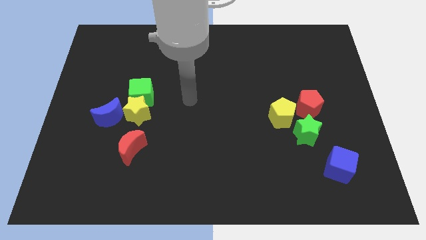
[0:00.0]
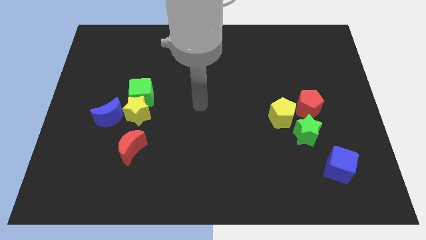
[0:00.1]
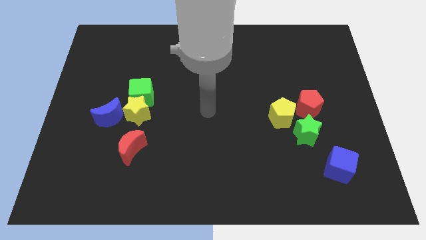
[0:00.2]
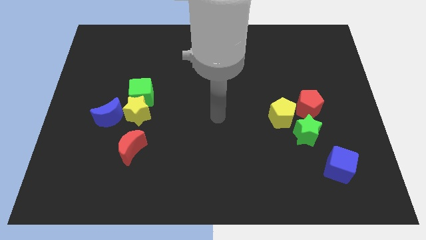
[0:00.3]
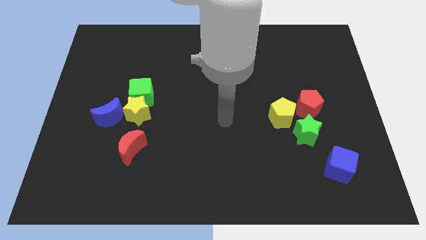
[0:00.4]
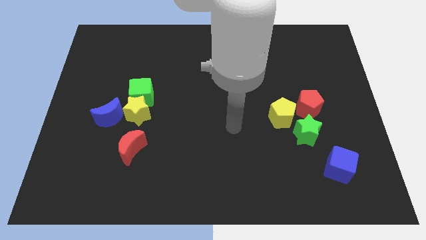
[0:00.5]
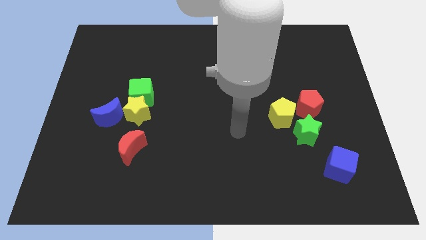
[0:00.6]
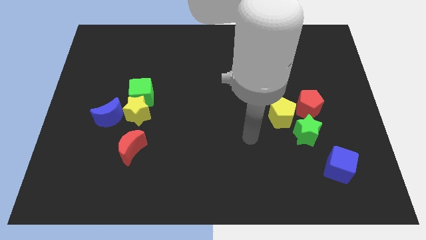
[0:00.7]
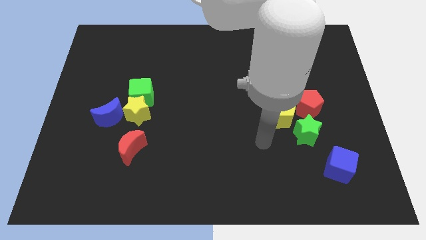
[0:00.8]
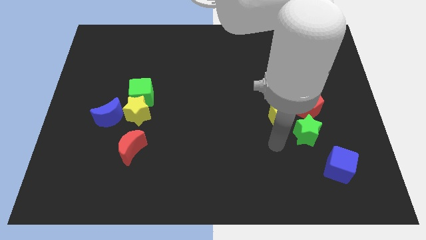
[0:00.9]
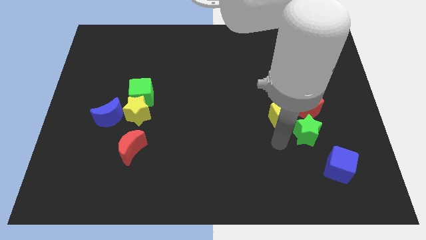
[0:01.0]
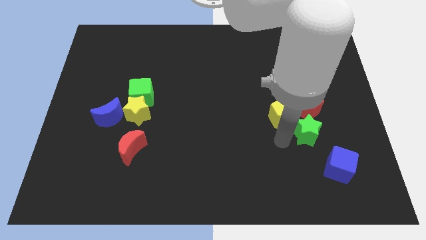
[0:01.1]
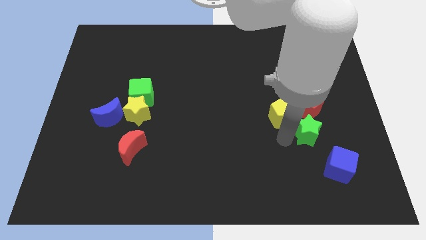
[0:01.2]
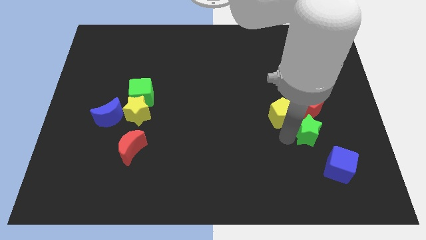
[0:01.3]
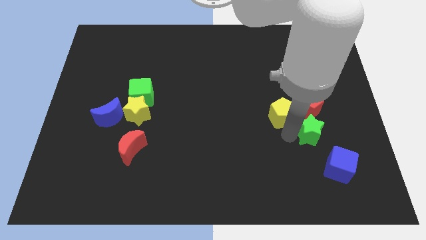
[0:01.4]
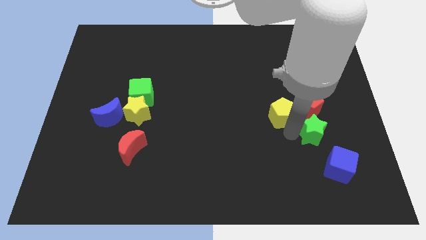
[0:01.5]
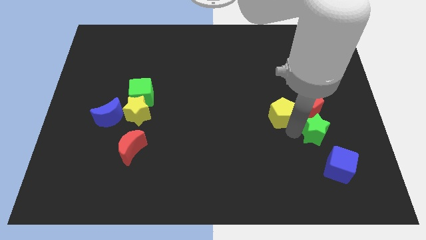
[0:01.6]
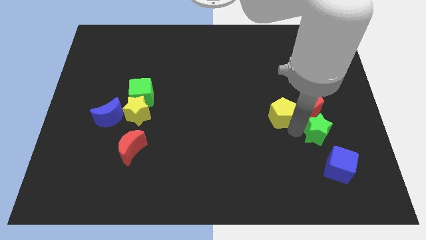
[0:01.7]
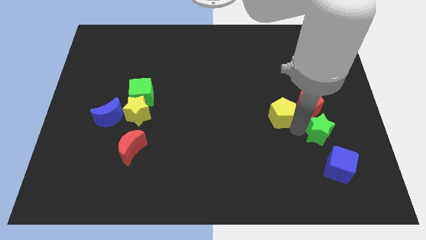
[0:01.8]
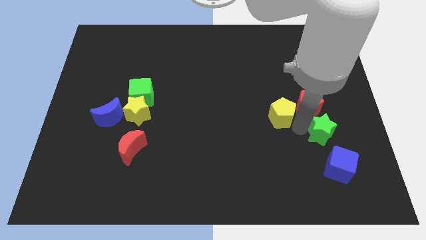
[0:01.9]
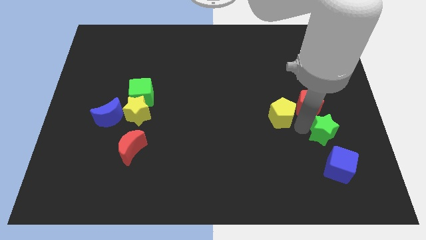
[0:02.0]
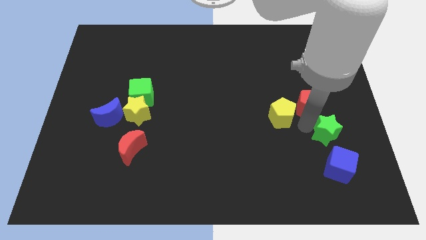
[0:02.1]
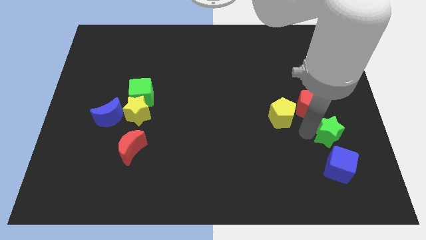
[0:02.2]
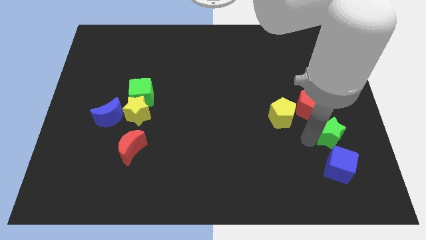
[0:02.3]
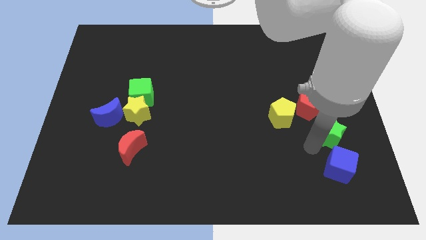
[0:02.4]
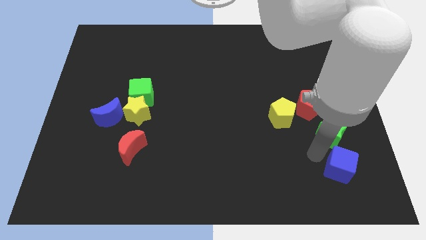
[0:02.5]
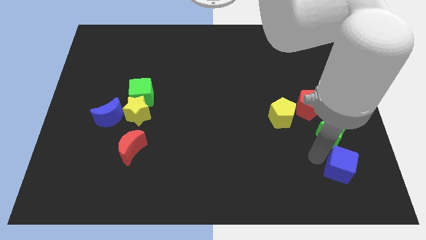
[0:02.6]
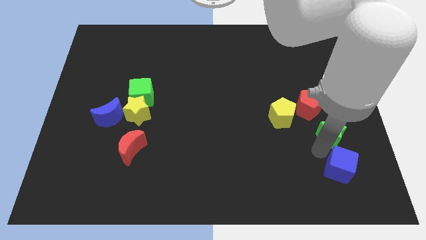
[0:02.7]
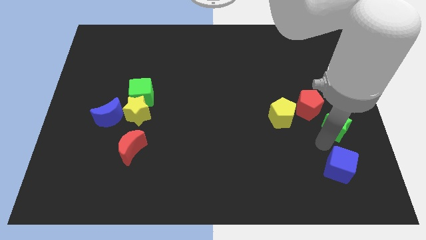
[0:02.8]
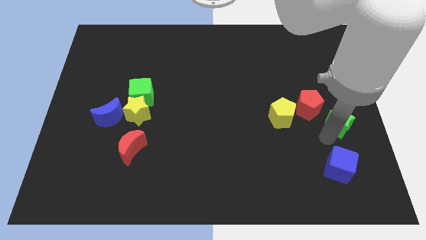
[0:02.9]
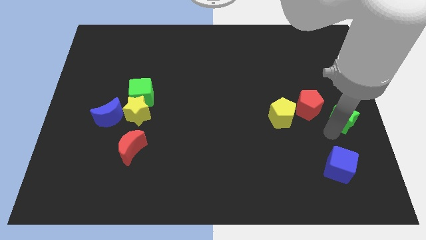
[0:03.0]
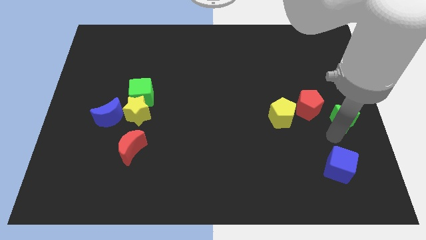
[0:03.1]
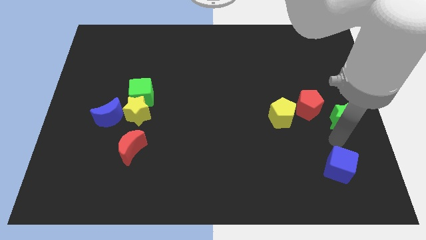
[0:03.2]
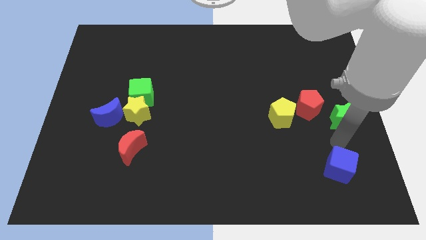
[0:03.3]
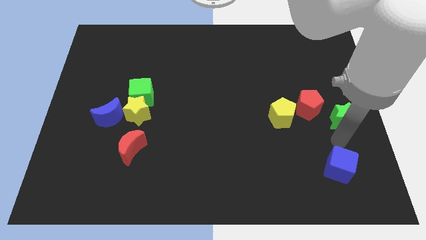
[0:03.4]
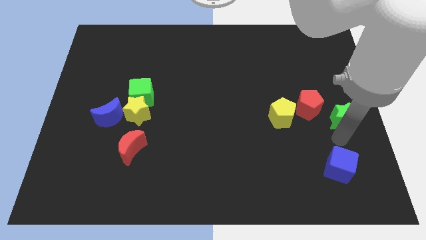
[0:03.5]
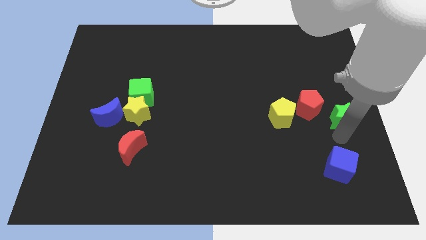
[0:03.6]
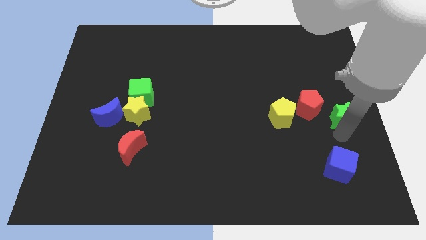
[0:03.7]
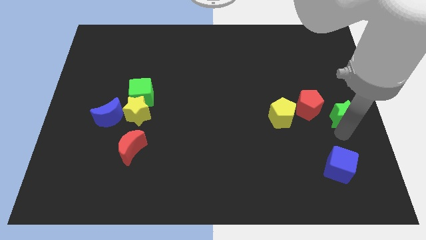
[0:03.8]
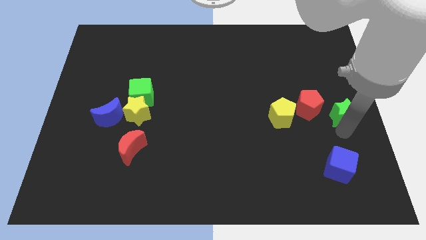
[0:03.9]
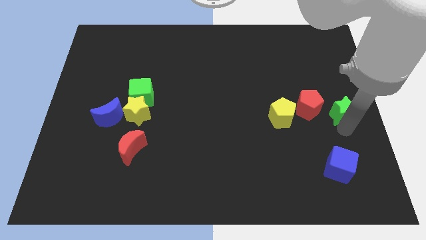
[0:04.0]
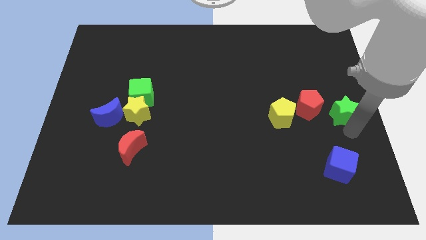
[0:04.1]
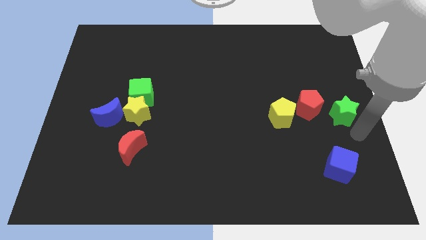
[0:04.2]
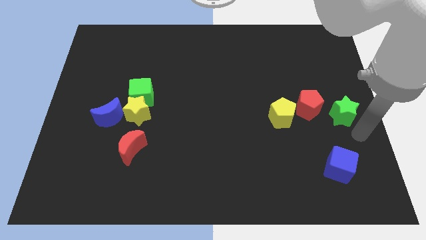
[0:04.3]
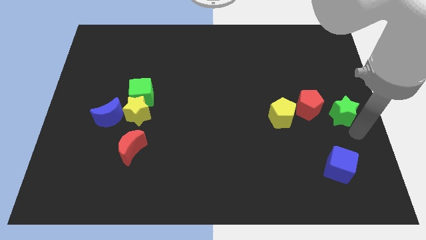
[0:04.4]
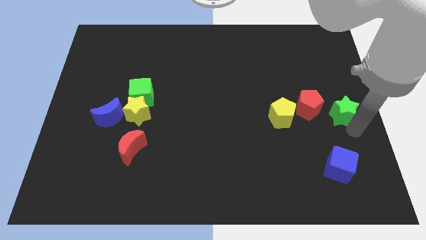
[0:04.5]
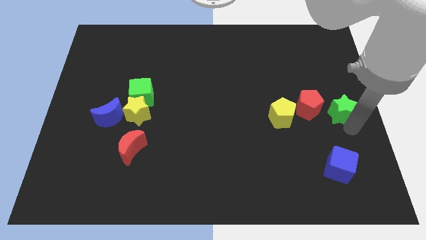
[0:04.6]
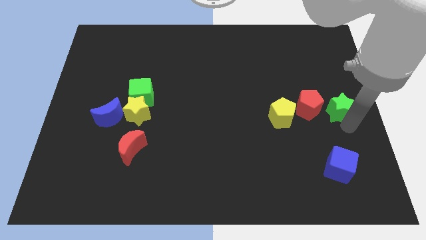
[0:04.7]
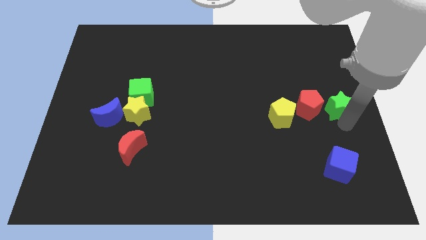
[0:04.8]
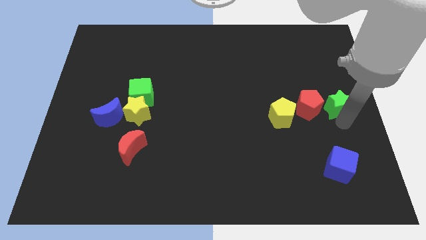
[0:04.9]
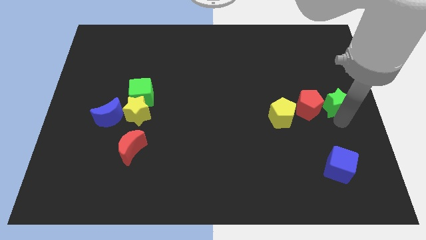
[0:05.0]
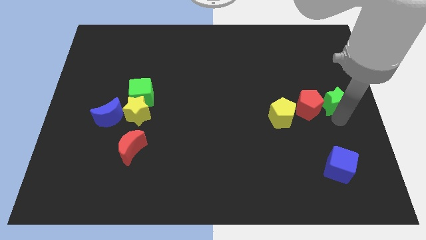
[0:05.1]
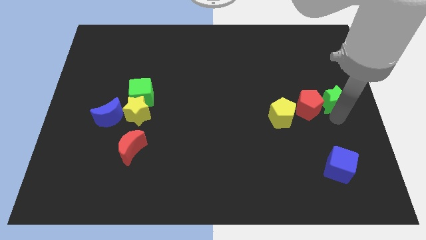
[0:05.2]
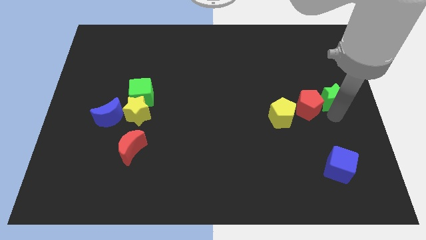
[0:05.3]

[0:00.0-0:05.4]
slightly move the green star upwards

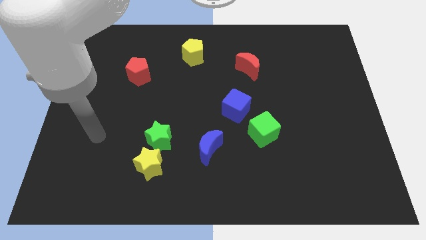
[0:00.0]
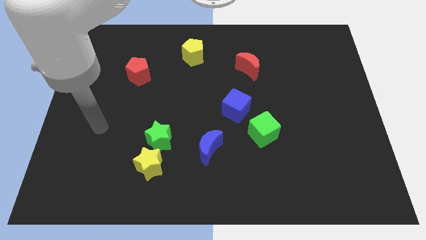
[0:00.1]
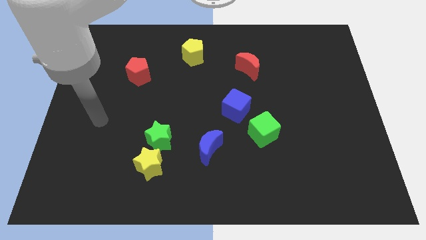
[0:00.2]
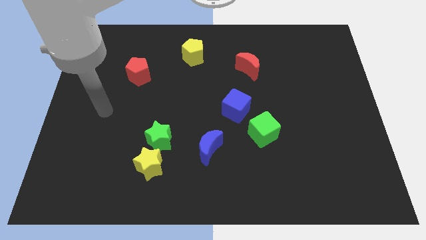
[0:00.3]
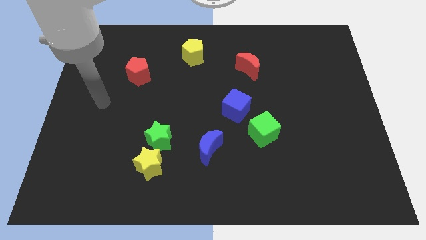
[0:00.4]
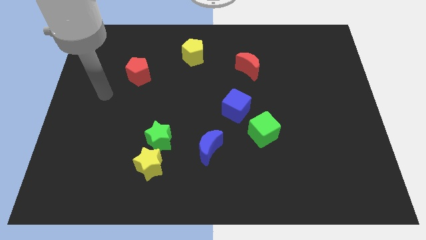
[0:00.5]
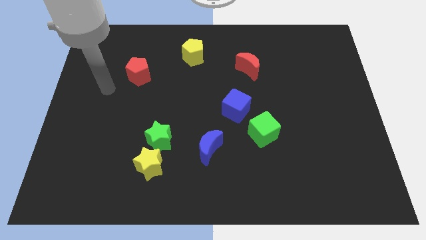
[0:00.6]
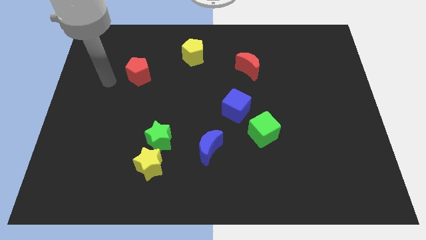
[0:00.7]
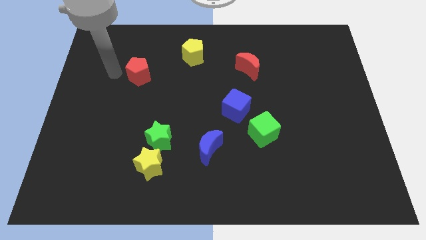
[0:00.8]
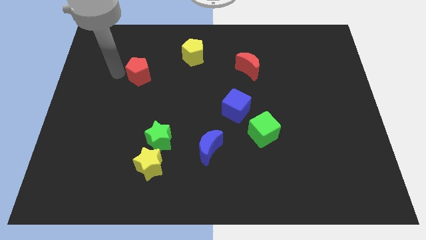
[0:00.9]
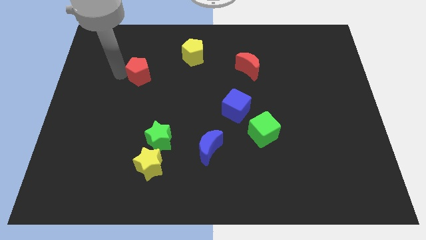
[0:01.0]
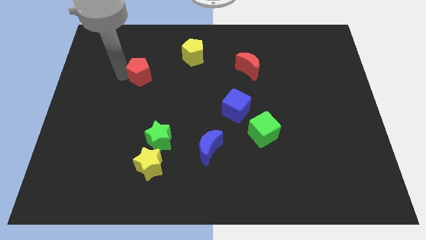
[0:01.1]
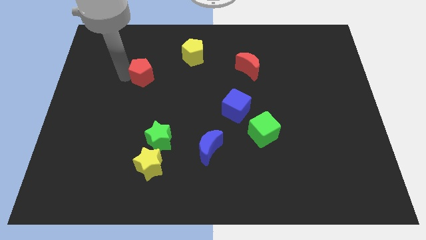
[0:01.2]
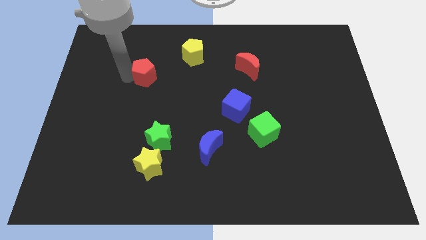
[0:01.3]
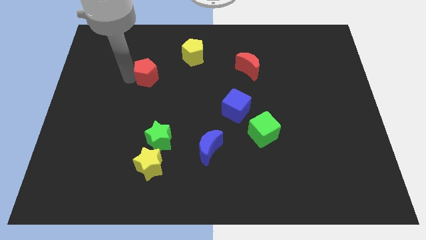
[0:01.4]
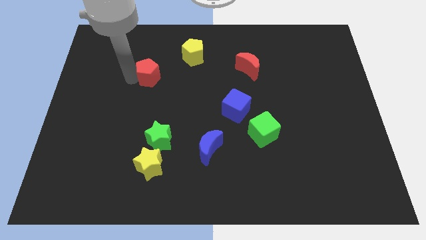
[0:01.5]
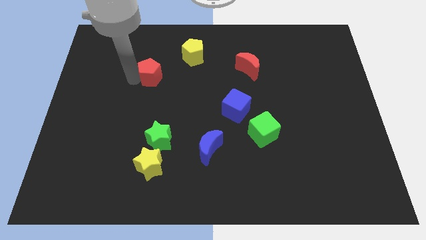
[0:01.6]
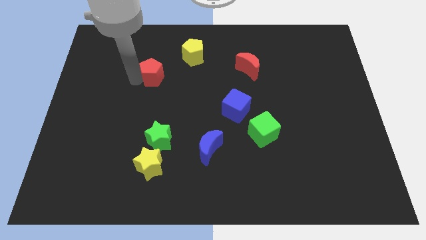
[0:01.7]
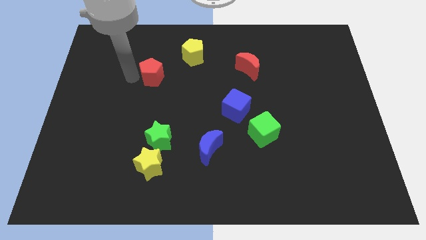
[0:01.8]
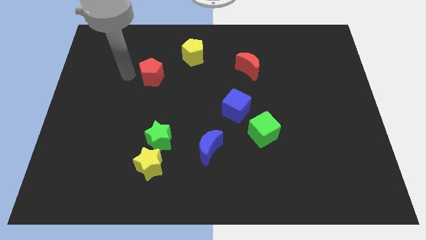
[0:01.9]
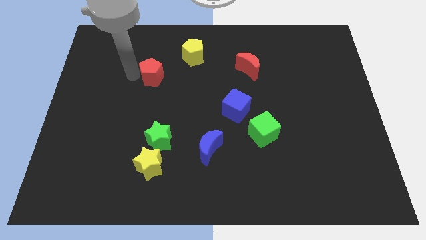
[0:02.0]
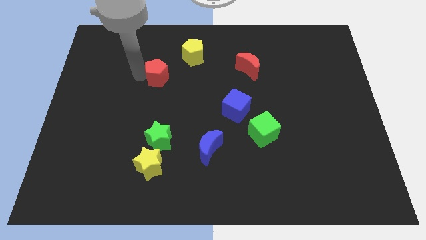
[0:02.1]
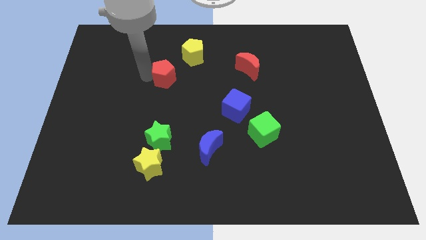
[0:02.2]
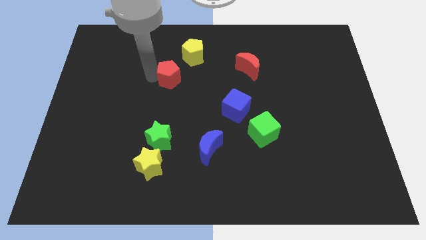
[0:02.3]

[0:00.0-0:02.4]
push the red pentagon a bit right
